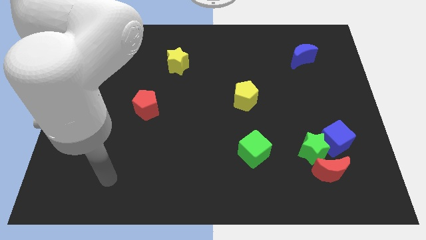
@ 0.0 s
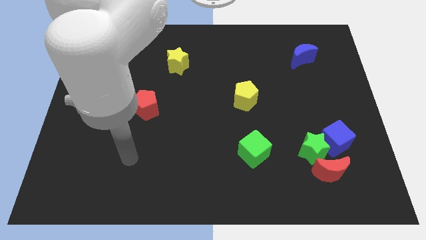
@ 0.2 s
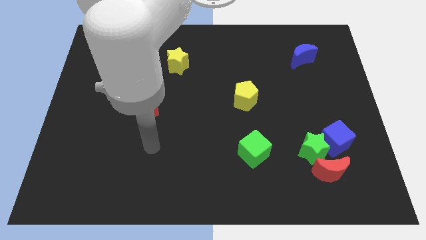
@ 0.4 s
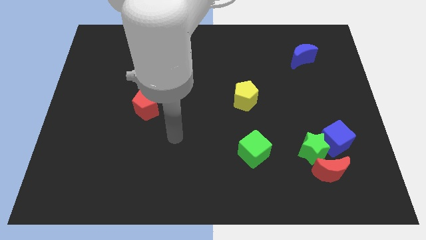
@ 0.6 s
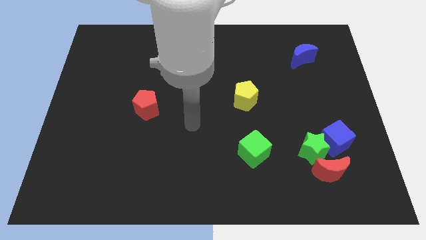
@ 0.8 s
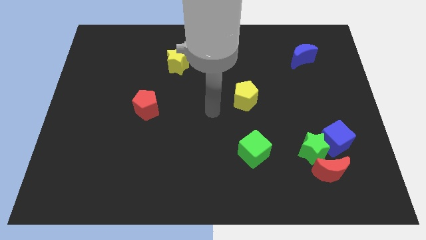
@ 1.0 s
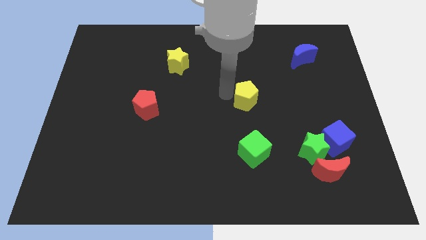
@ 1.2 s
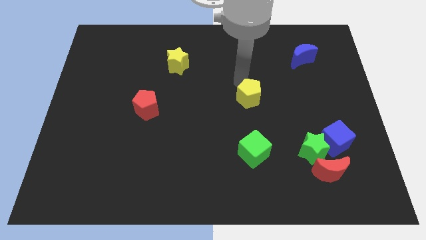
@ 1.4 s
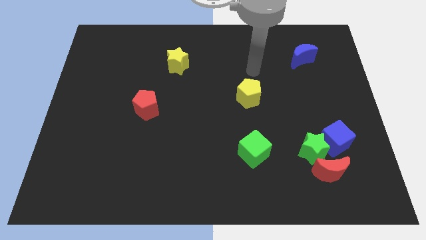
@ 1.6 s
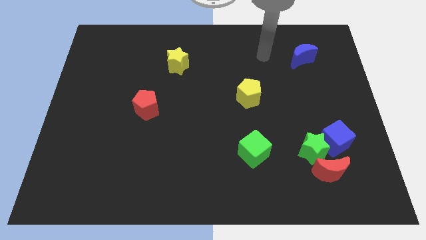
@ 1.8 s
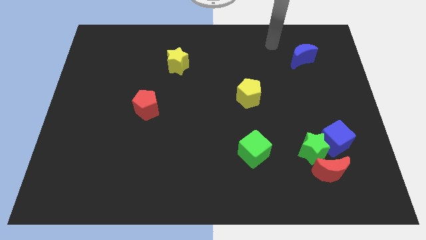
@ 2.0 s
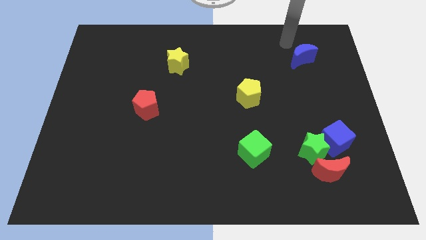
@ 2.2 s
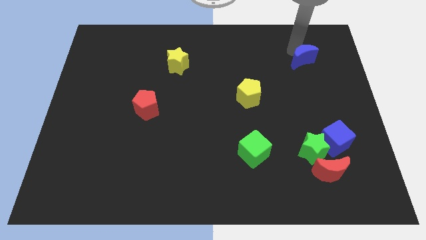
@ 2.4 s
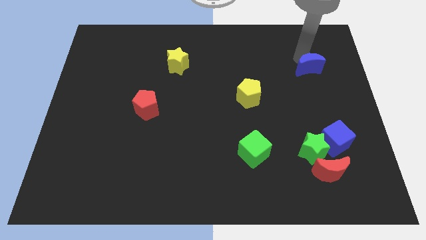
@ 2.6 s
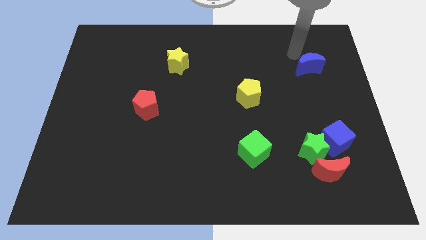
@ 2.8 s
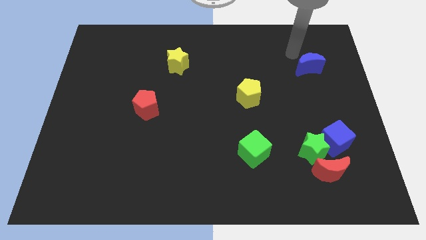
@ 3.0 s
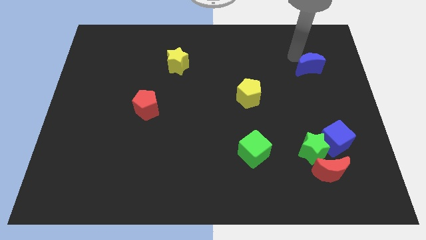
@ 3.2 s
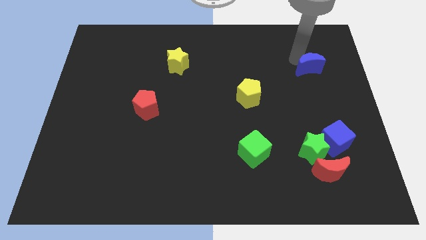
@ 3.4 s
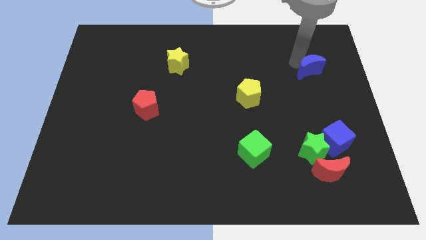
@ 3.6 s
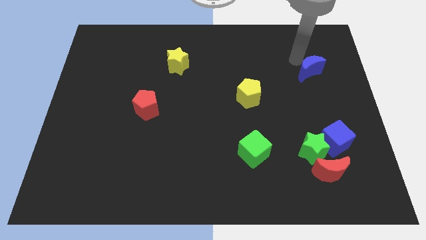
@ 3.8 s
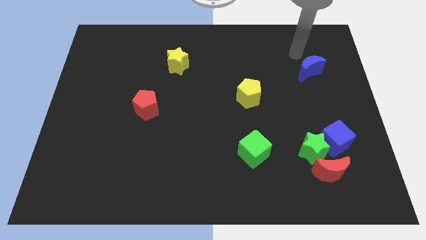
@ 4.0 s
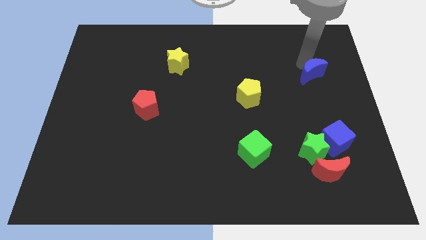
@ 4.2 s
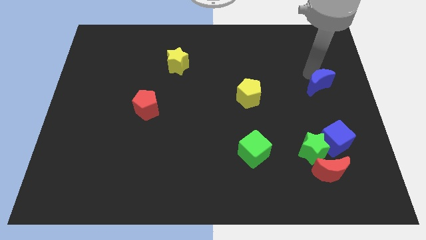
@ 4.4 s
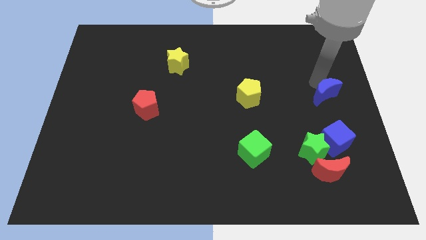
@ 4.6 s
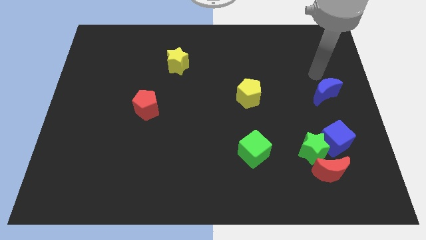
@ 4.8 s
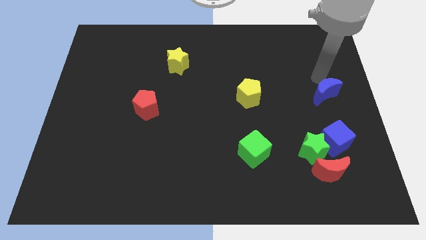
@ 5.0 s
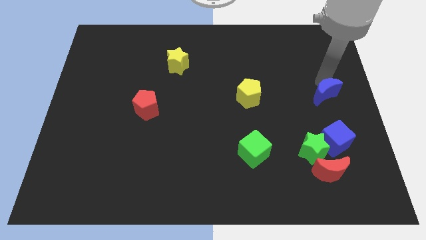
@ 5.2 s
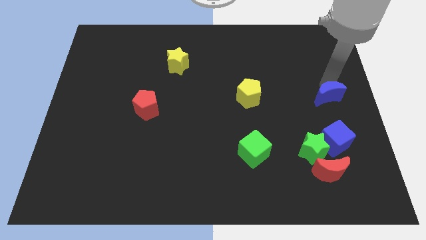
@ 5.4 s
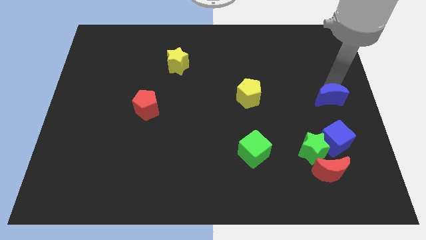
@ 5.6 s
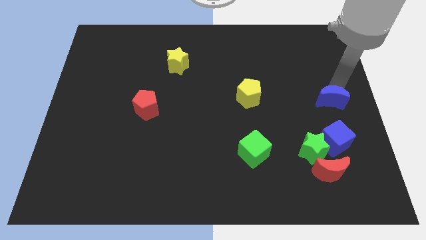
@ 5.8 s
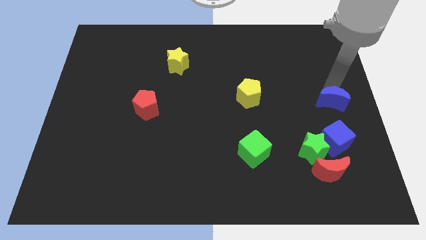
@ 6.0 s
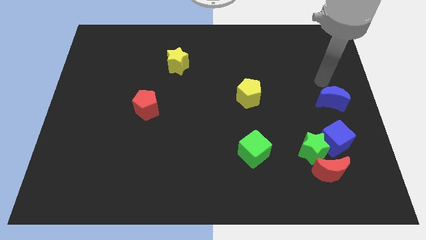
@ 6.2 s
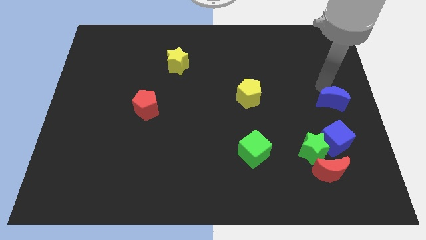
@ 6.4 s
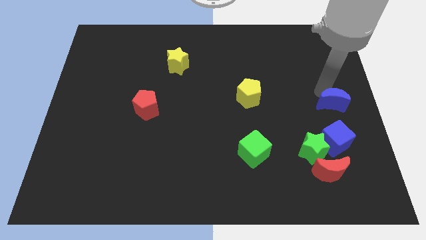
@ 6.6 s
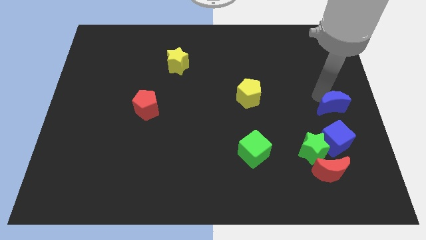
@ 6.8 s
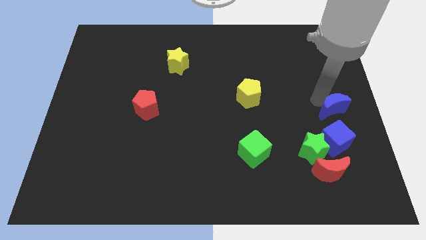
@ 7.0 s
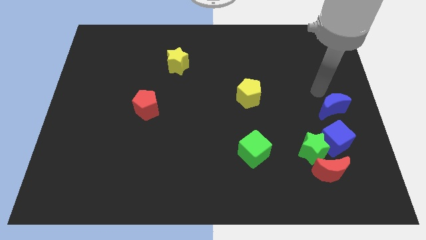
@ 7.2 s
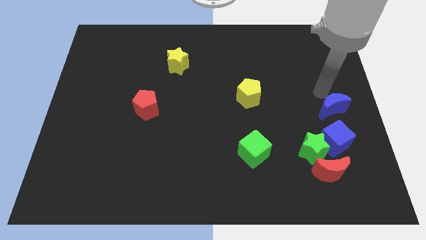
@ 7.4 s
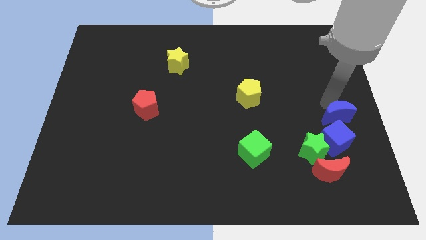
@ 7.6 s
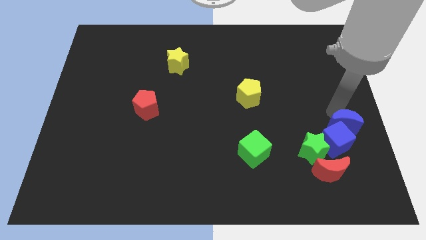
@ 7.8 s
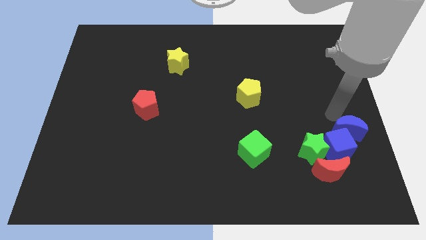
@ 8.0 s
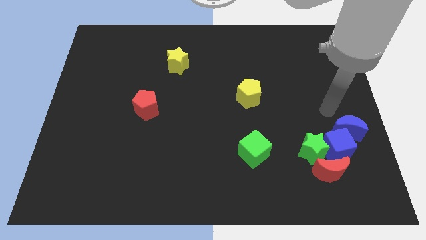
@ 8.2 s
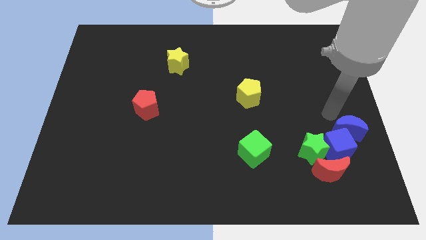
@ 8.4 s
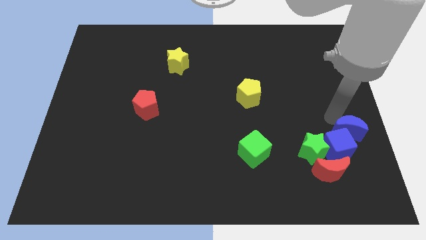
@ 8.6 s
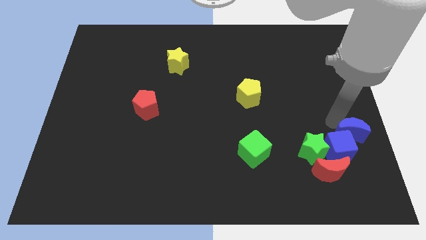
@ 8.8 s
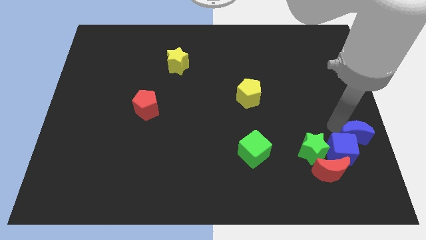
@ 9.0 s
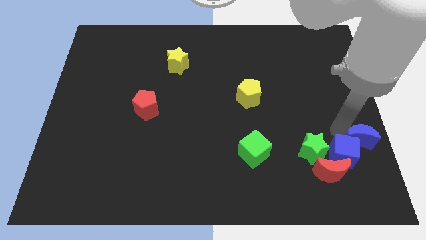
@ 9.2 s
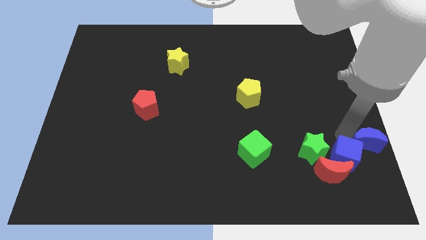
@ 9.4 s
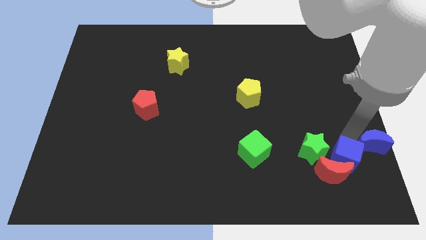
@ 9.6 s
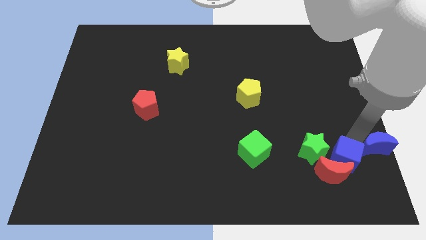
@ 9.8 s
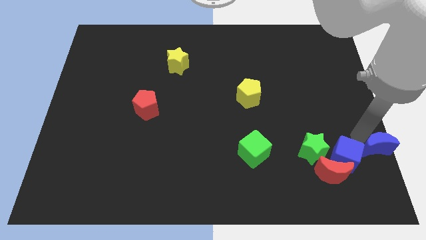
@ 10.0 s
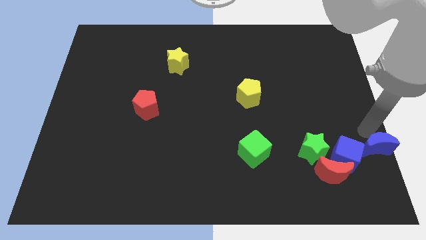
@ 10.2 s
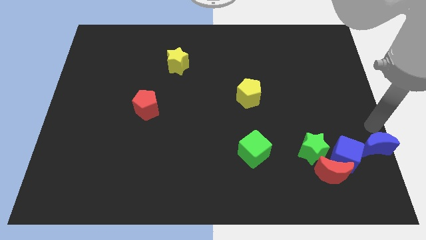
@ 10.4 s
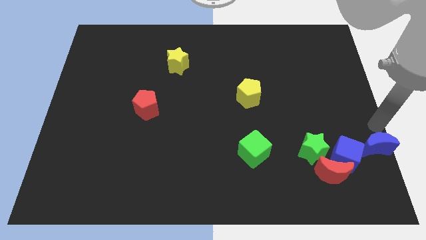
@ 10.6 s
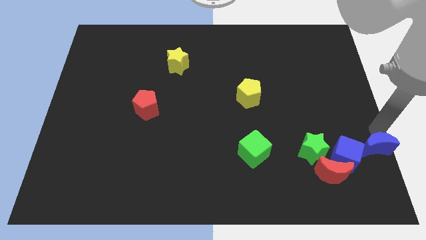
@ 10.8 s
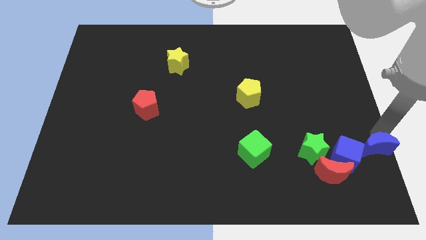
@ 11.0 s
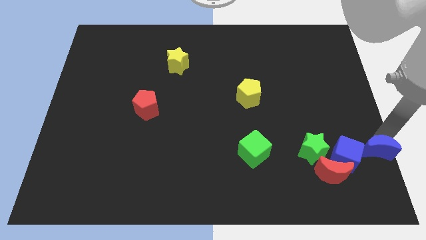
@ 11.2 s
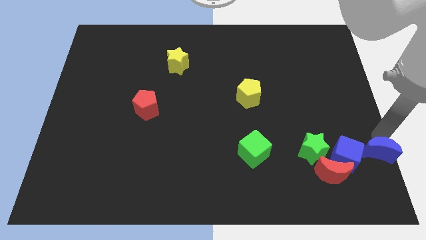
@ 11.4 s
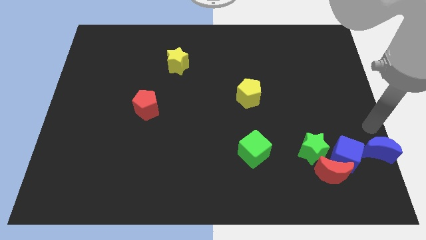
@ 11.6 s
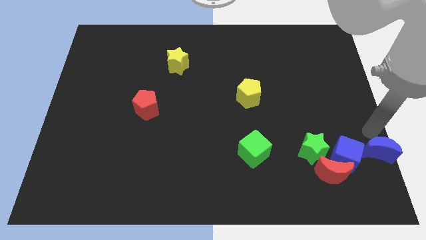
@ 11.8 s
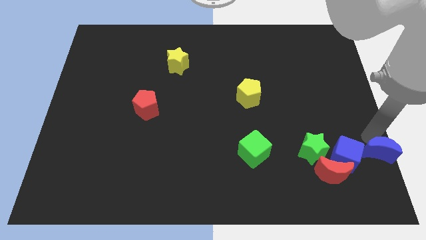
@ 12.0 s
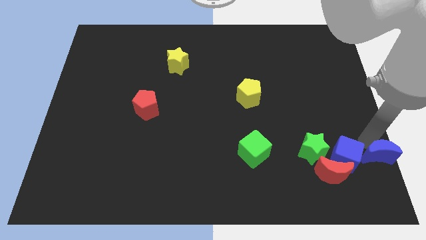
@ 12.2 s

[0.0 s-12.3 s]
push the blue moon to the bottom right
